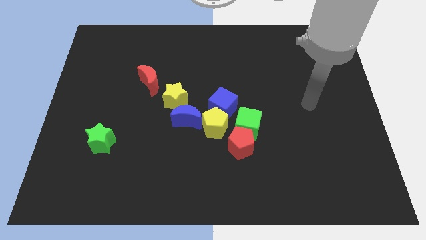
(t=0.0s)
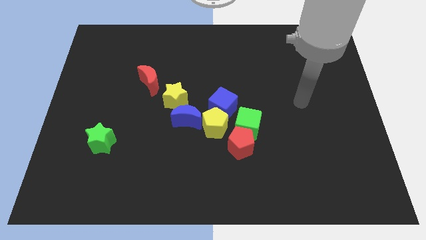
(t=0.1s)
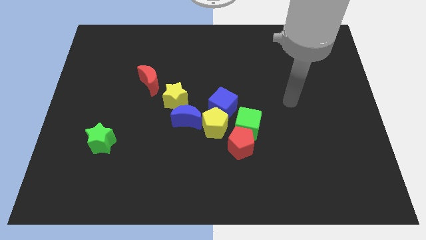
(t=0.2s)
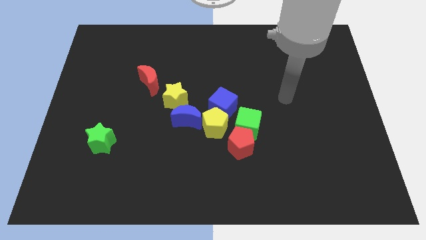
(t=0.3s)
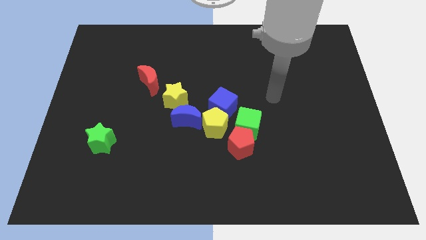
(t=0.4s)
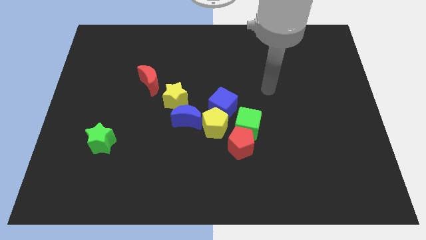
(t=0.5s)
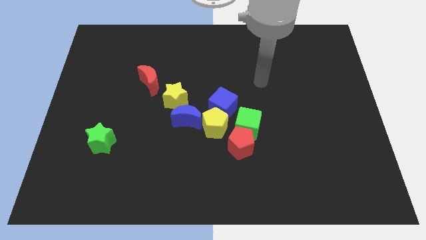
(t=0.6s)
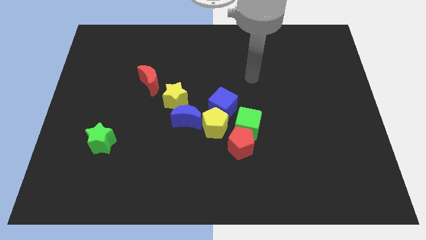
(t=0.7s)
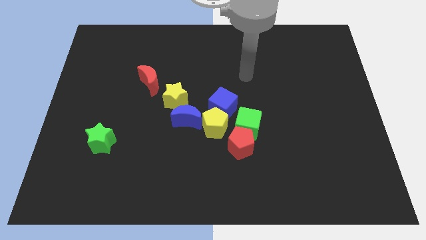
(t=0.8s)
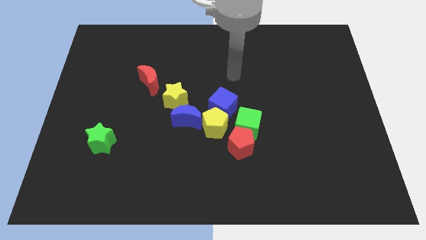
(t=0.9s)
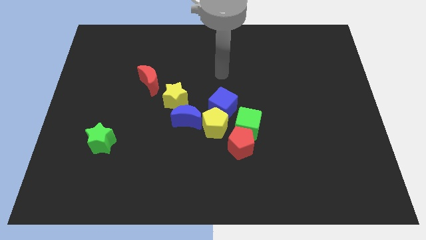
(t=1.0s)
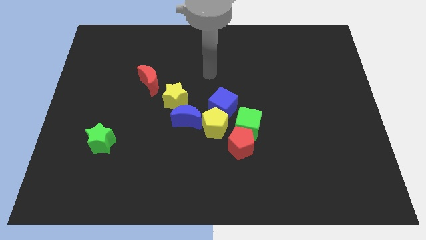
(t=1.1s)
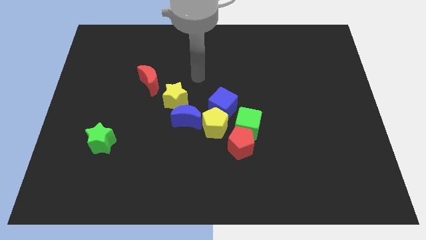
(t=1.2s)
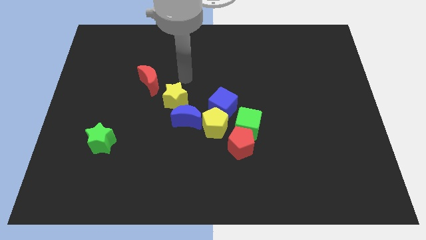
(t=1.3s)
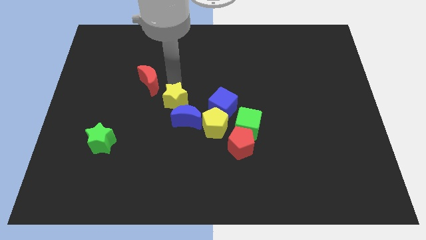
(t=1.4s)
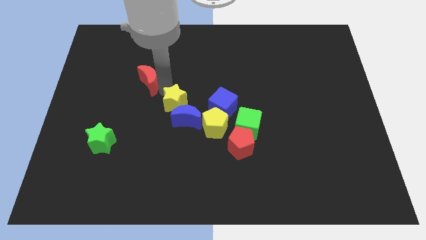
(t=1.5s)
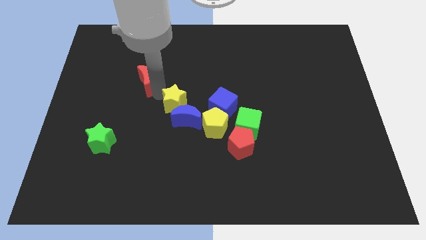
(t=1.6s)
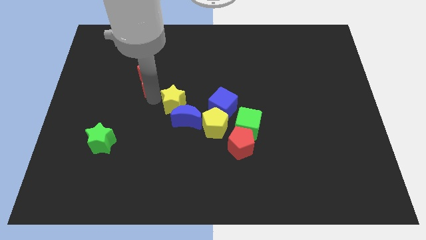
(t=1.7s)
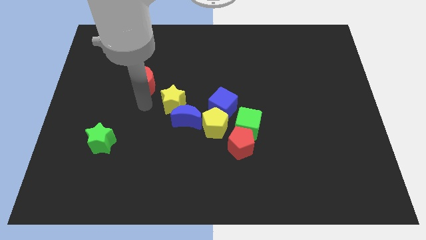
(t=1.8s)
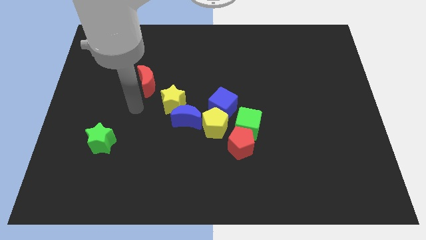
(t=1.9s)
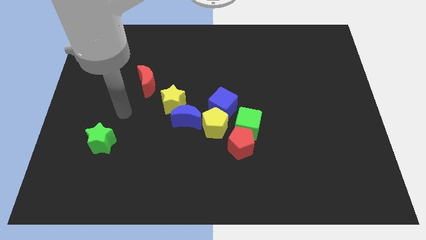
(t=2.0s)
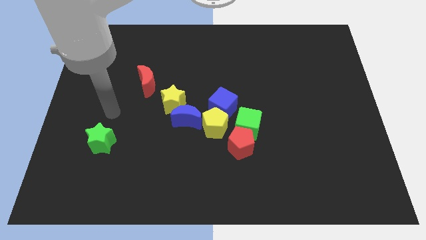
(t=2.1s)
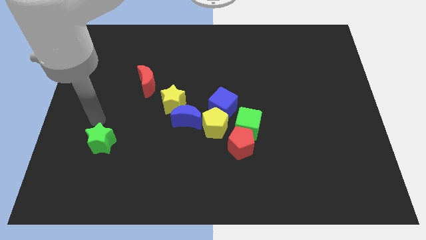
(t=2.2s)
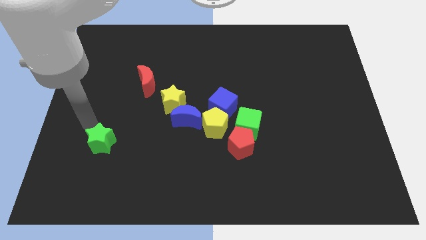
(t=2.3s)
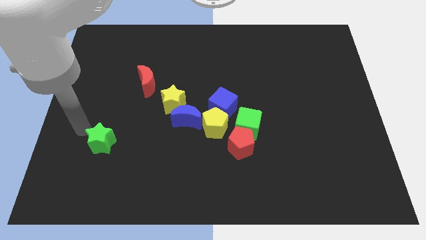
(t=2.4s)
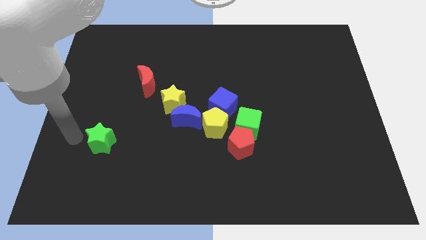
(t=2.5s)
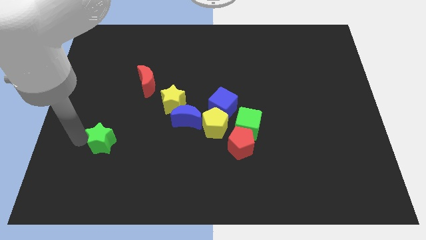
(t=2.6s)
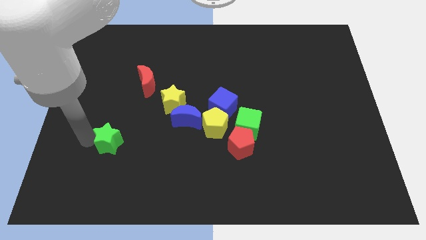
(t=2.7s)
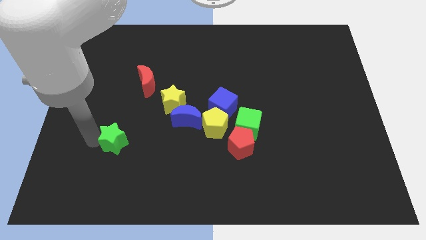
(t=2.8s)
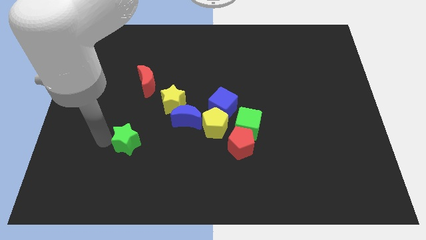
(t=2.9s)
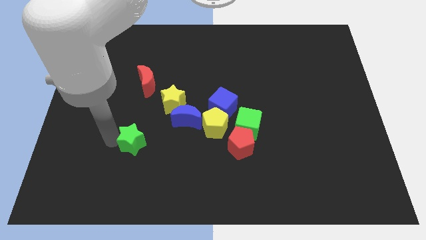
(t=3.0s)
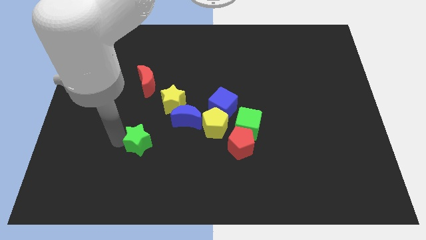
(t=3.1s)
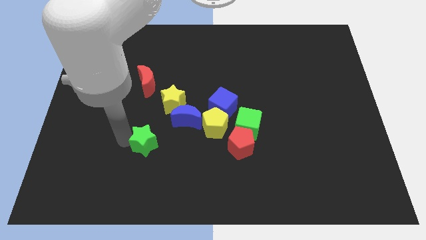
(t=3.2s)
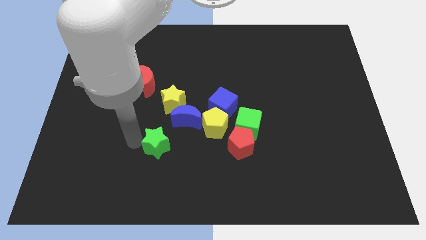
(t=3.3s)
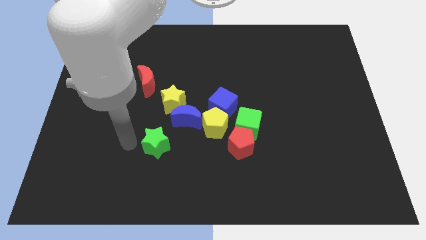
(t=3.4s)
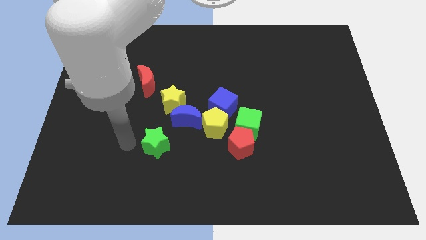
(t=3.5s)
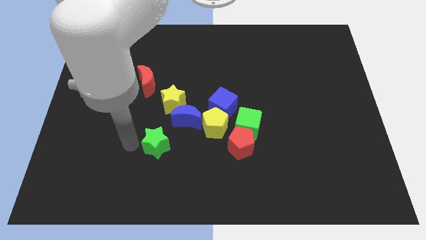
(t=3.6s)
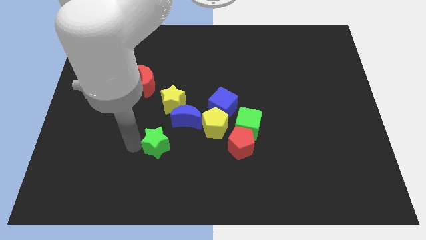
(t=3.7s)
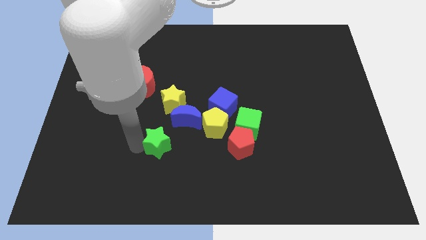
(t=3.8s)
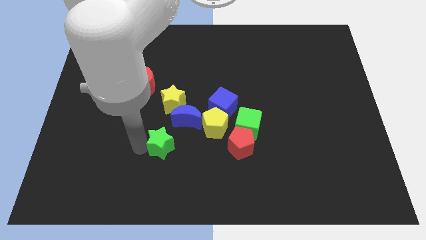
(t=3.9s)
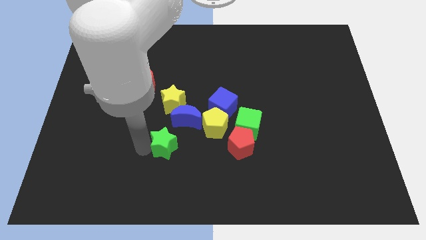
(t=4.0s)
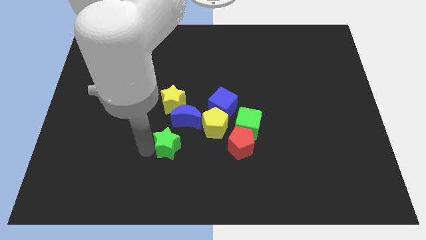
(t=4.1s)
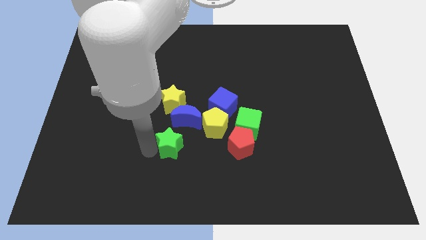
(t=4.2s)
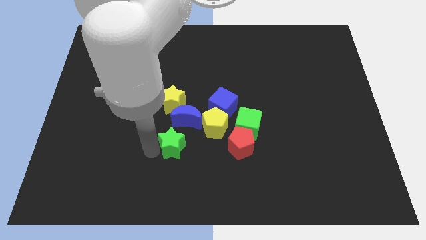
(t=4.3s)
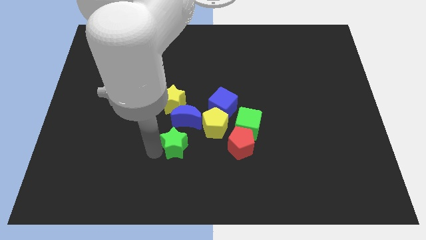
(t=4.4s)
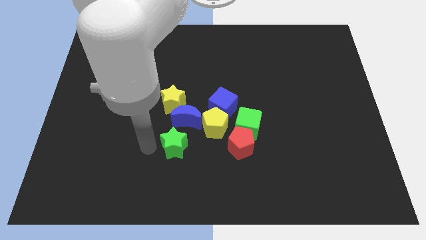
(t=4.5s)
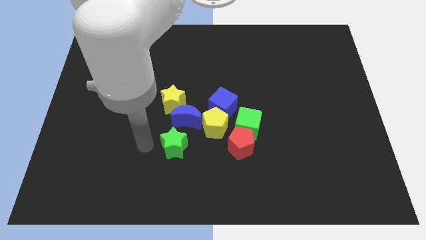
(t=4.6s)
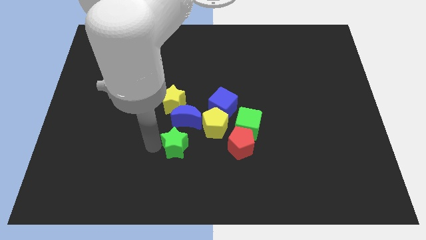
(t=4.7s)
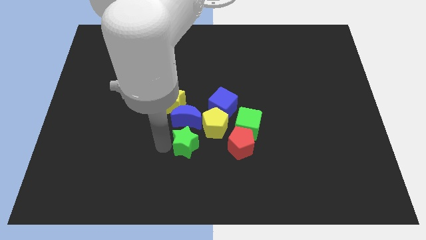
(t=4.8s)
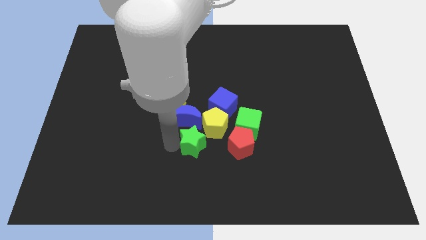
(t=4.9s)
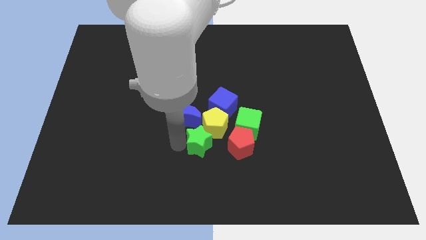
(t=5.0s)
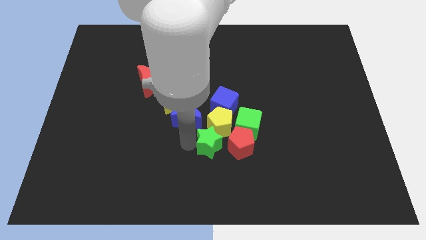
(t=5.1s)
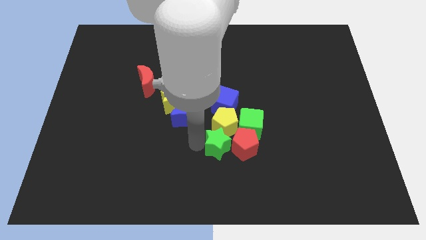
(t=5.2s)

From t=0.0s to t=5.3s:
move the green star next to the red pentagon

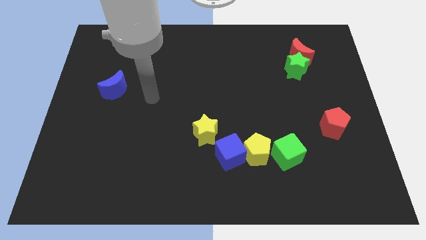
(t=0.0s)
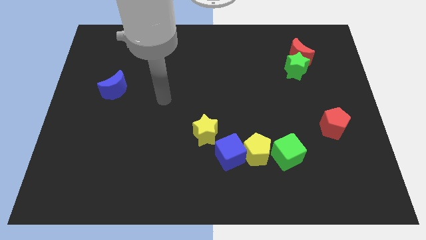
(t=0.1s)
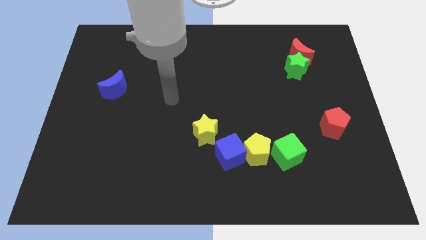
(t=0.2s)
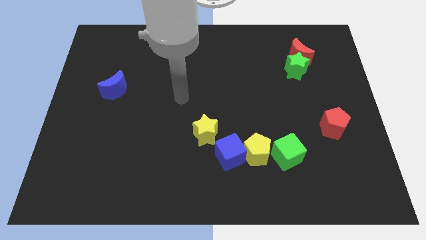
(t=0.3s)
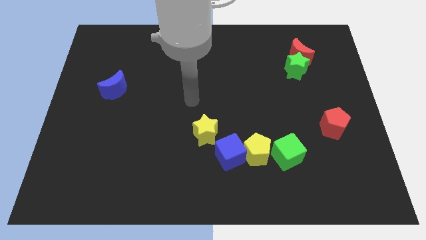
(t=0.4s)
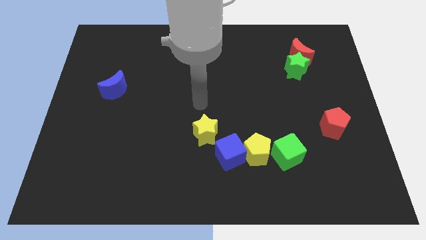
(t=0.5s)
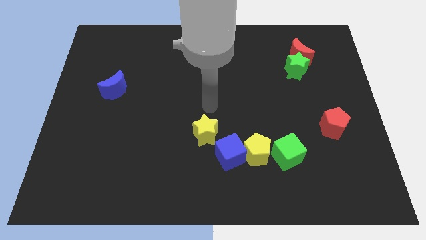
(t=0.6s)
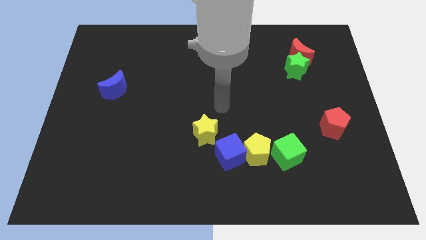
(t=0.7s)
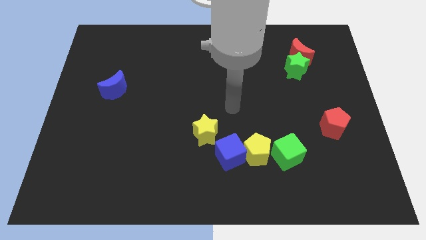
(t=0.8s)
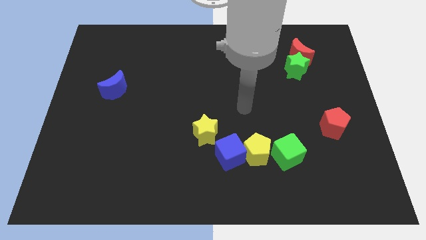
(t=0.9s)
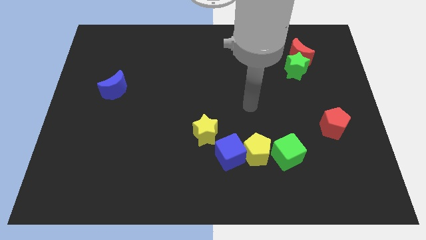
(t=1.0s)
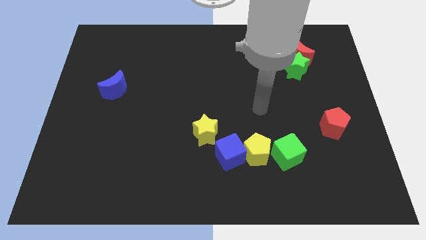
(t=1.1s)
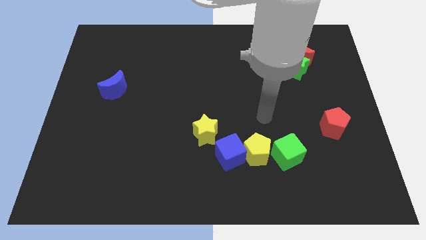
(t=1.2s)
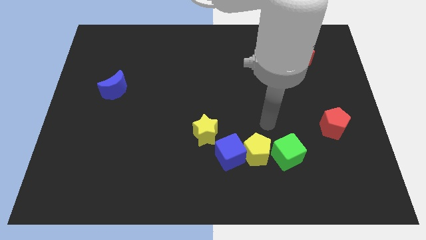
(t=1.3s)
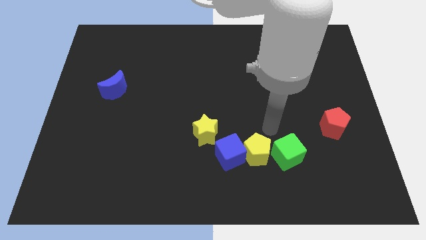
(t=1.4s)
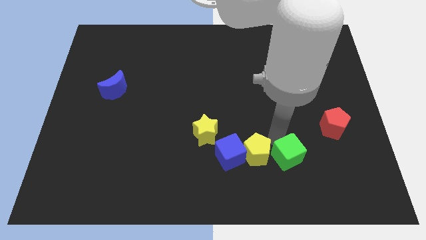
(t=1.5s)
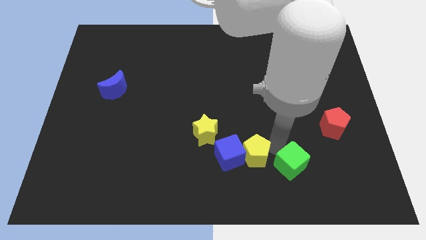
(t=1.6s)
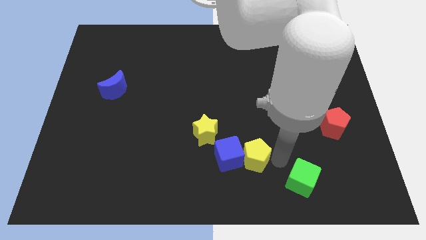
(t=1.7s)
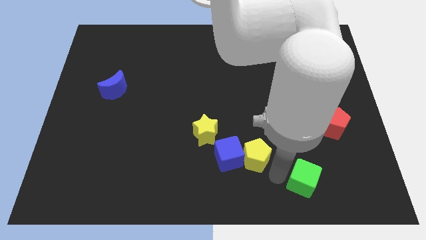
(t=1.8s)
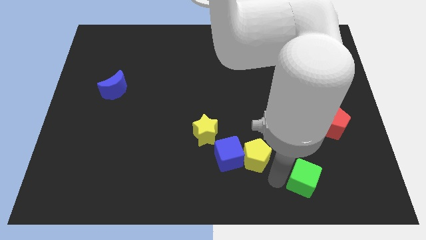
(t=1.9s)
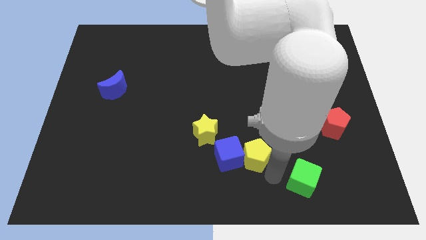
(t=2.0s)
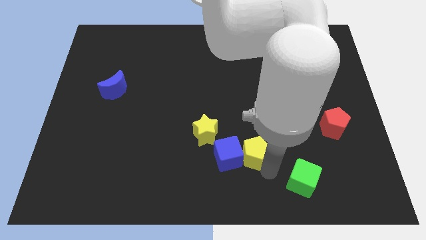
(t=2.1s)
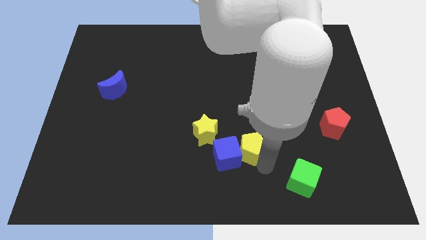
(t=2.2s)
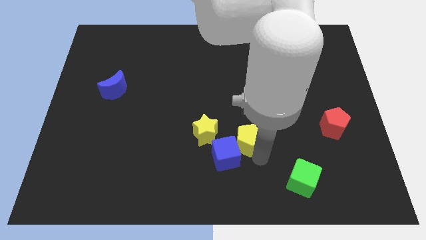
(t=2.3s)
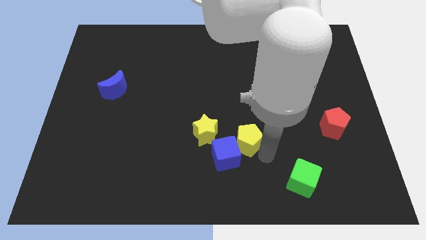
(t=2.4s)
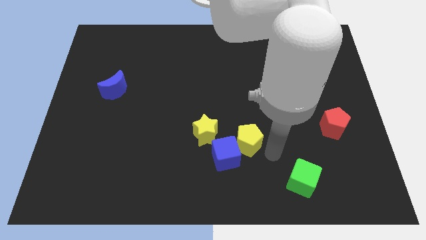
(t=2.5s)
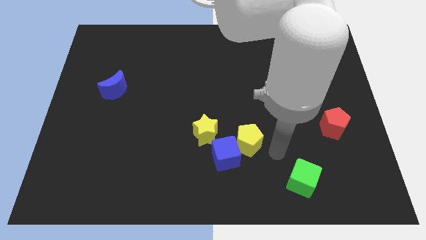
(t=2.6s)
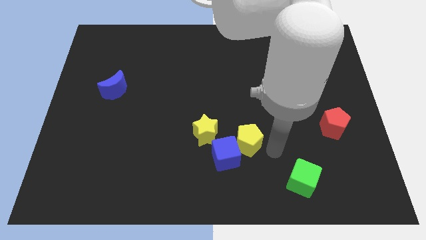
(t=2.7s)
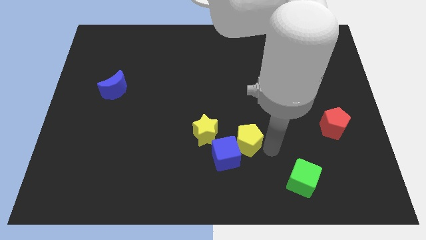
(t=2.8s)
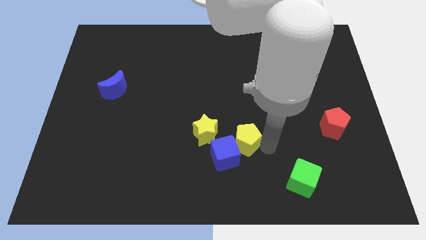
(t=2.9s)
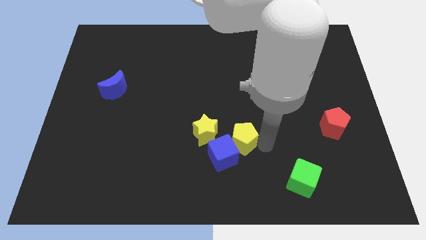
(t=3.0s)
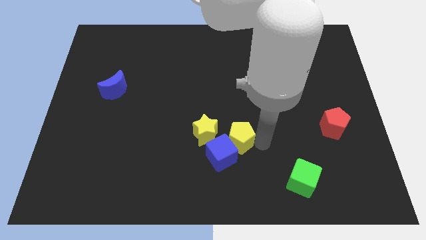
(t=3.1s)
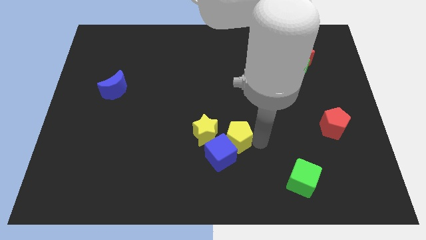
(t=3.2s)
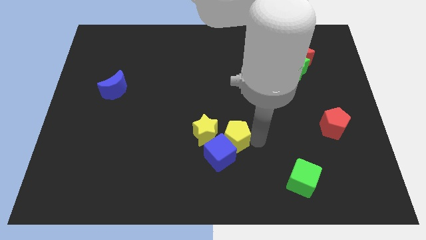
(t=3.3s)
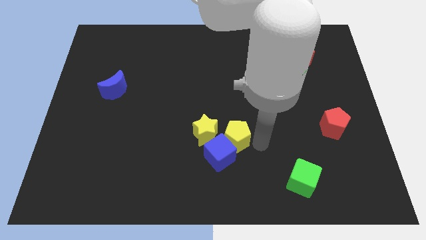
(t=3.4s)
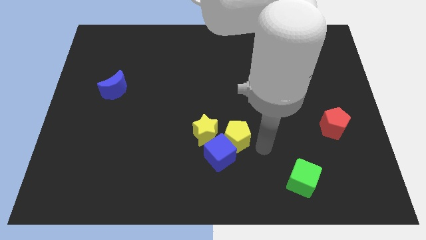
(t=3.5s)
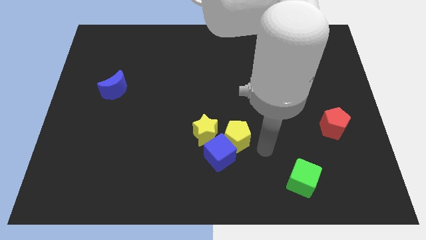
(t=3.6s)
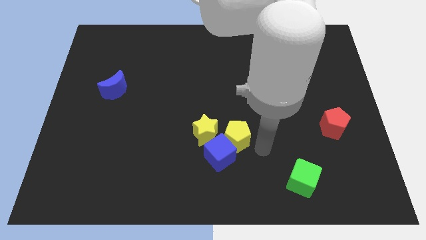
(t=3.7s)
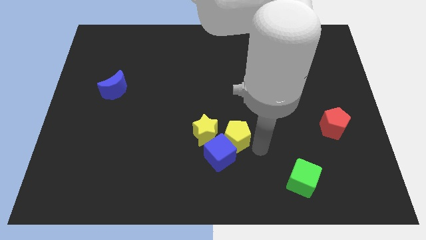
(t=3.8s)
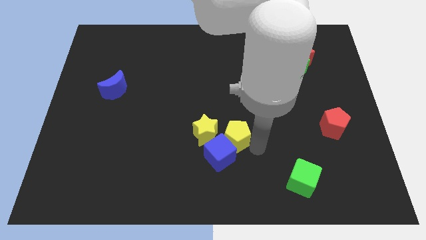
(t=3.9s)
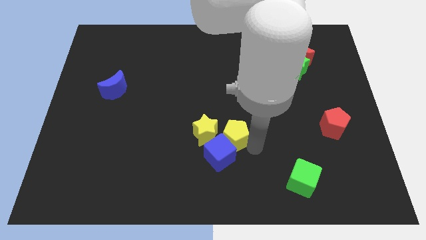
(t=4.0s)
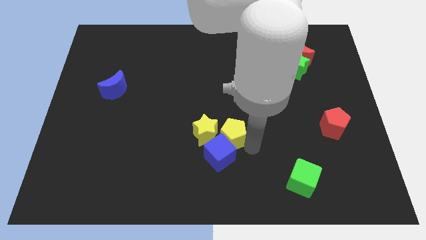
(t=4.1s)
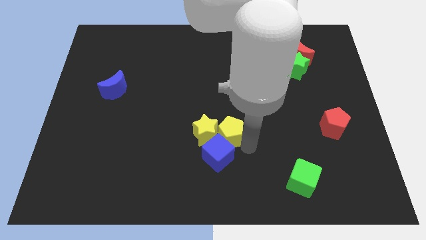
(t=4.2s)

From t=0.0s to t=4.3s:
slide the yellow pentagon close to the yellow star
